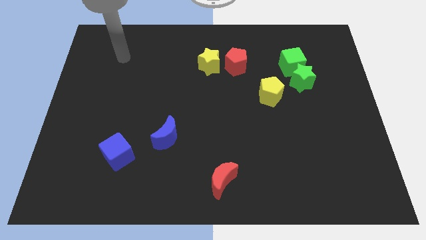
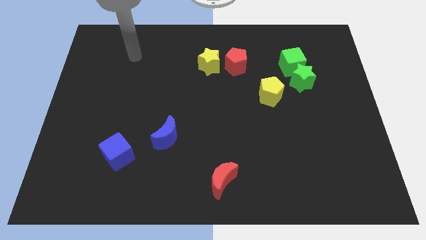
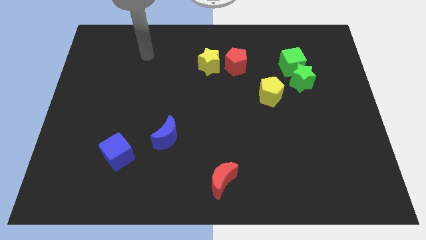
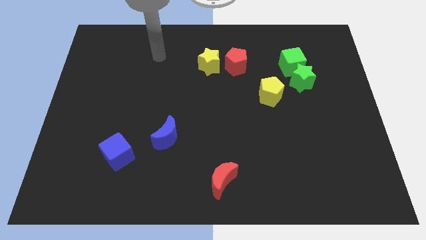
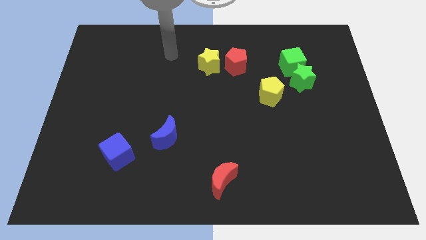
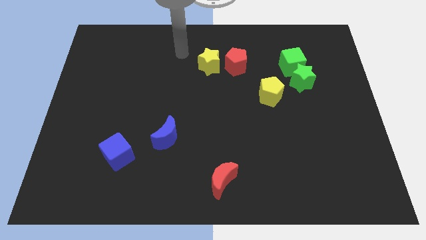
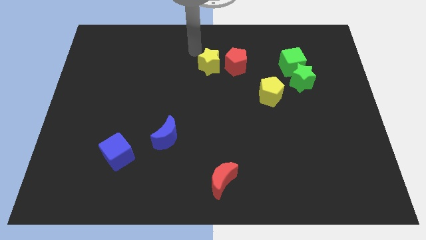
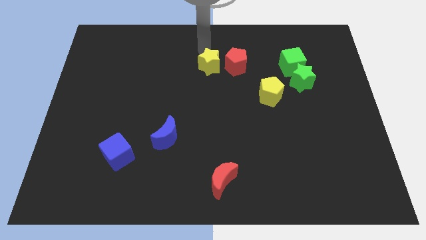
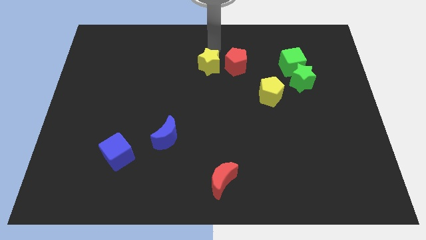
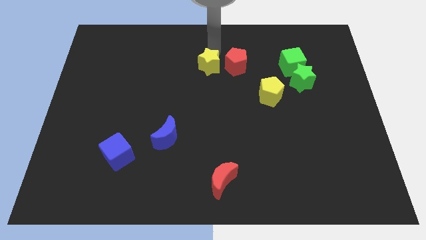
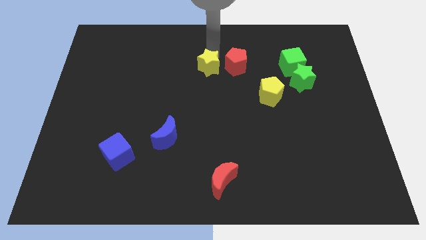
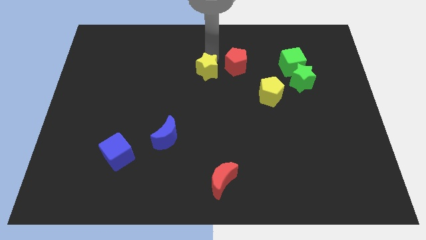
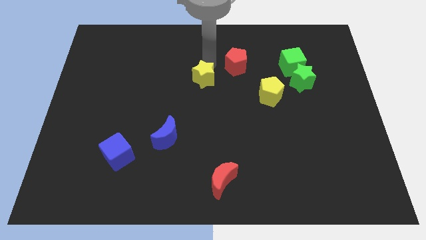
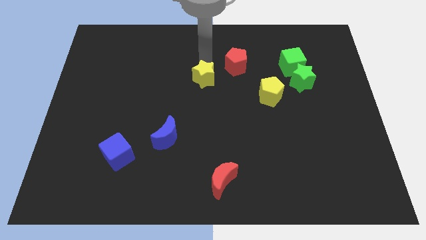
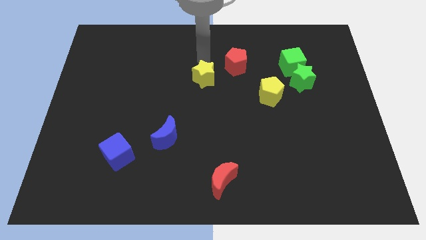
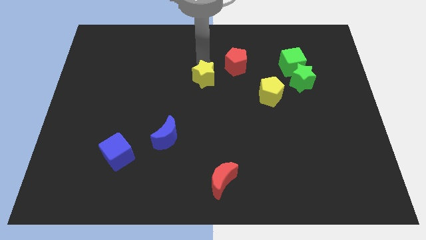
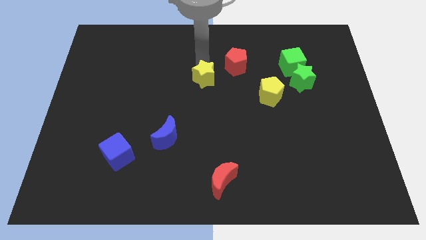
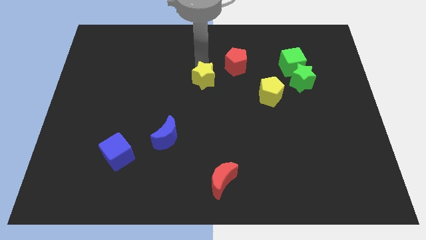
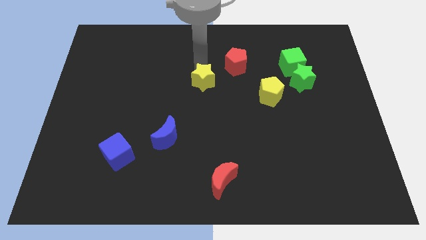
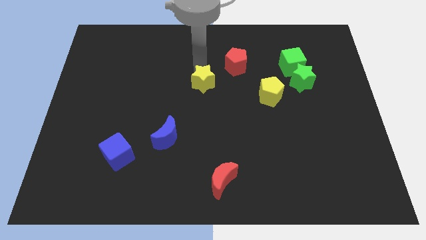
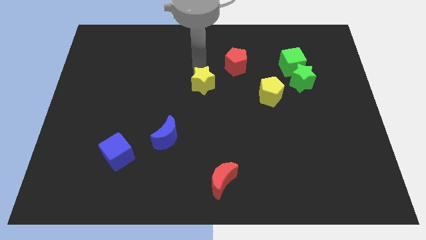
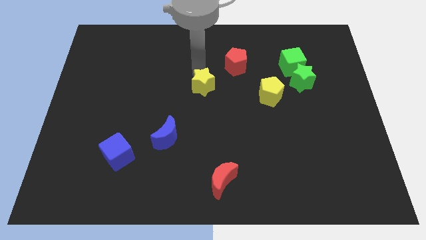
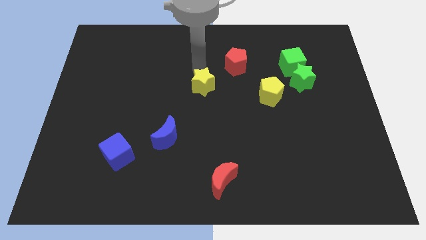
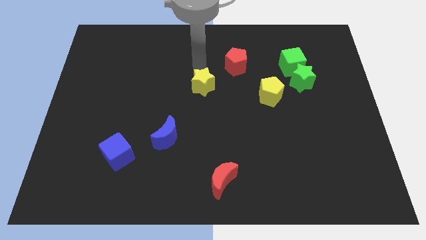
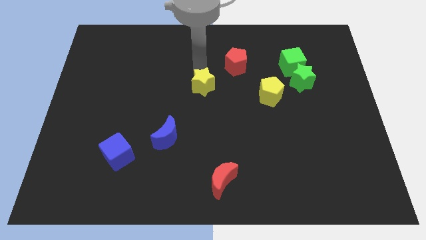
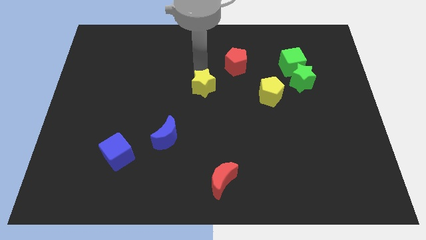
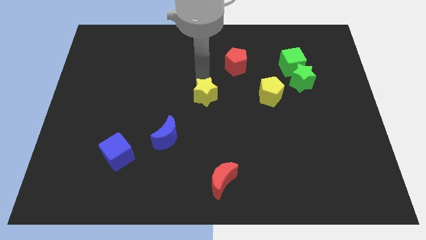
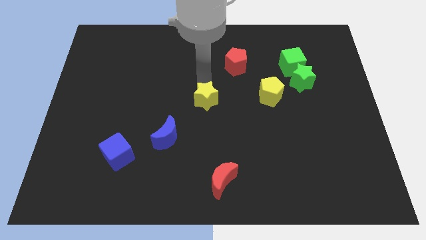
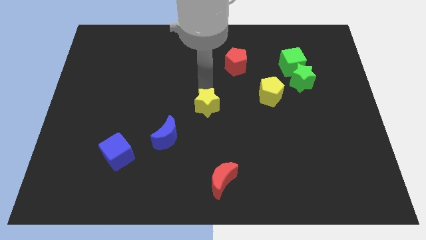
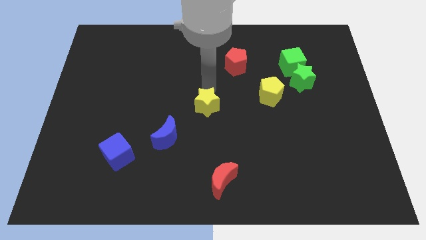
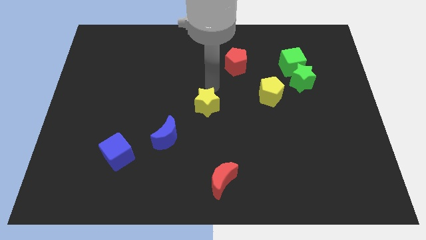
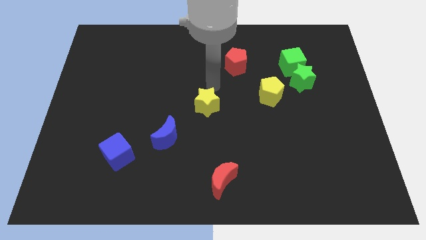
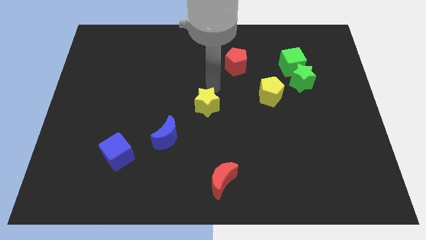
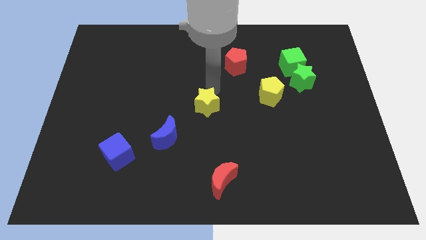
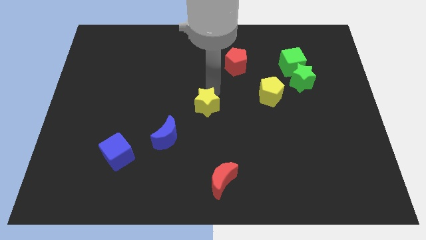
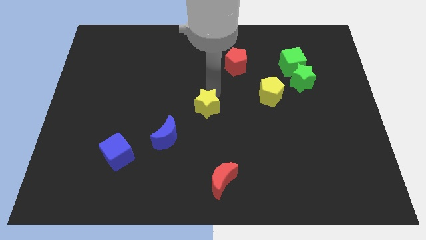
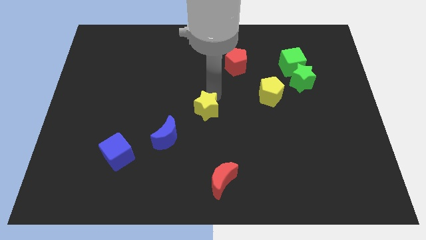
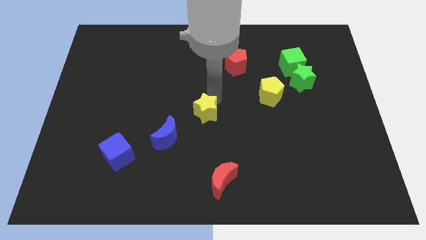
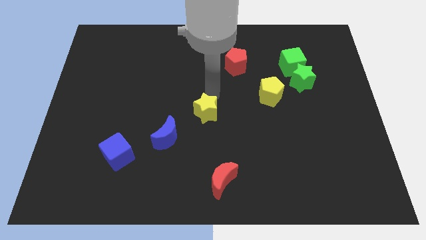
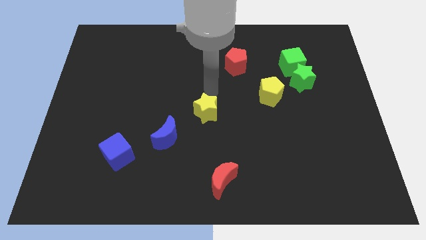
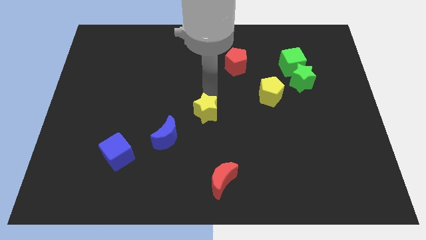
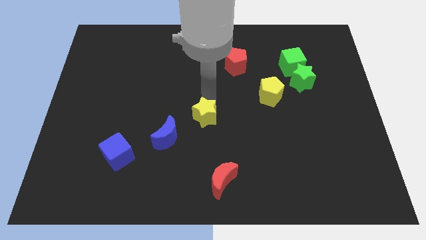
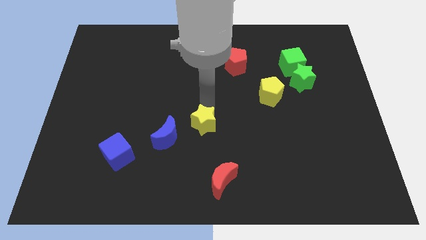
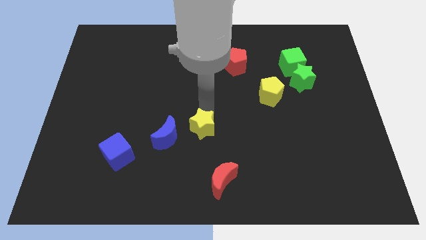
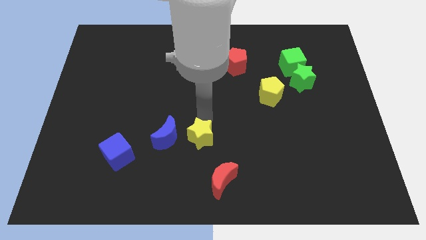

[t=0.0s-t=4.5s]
move the yellow star diagonally up and to the left of the red moon

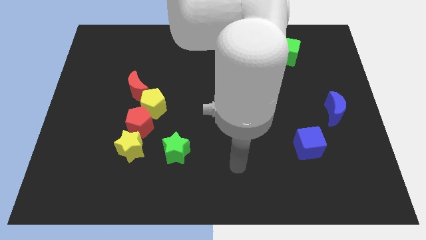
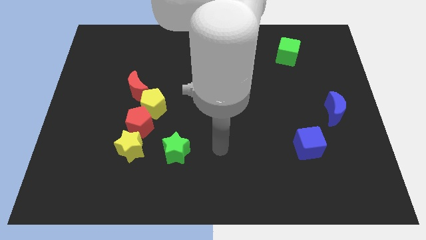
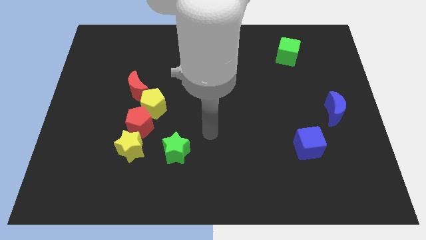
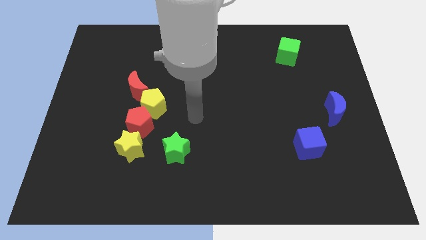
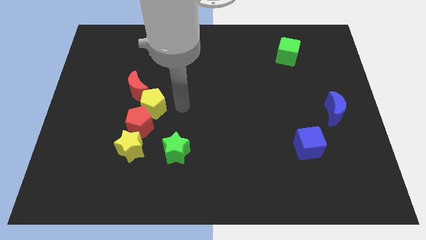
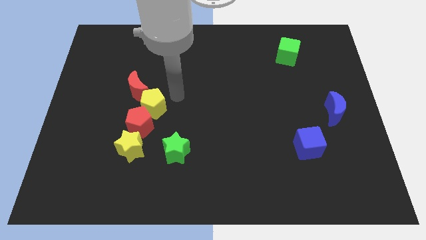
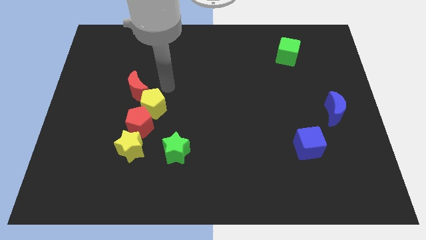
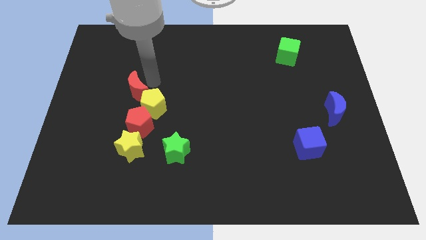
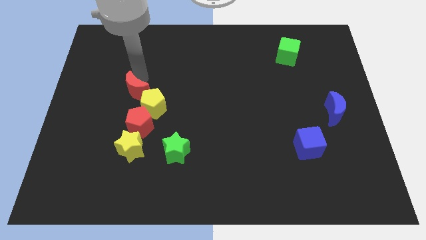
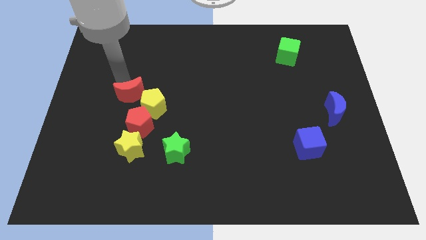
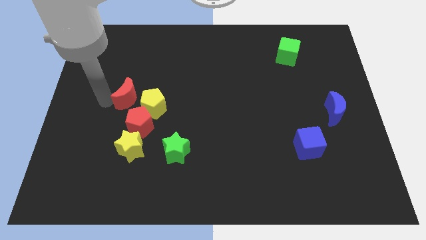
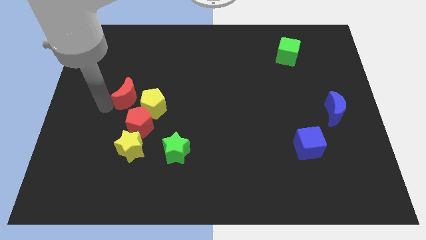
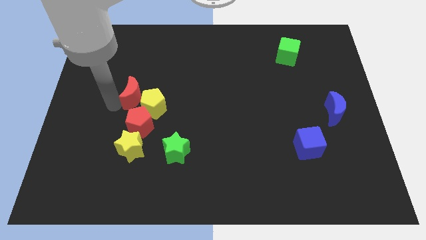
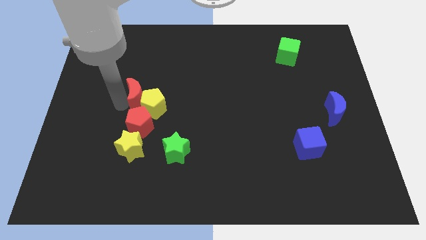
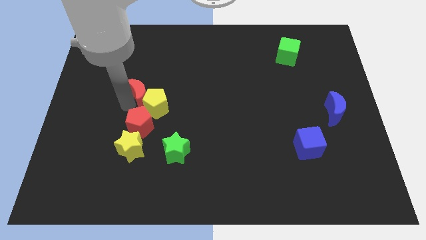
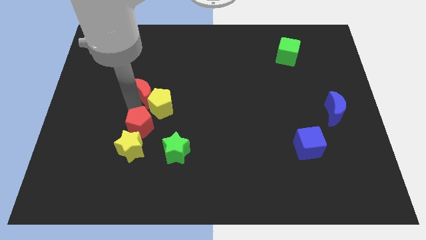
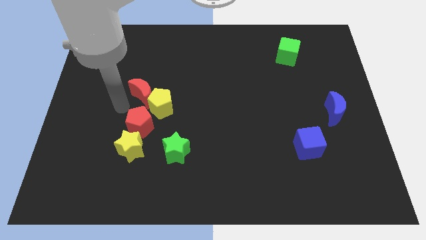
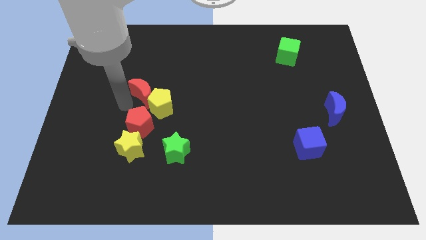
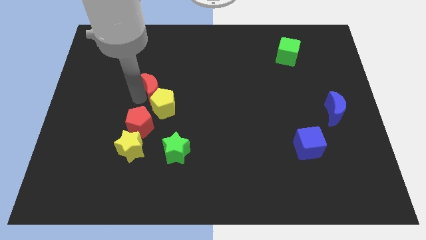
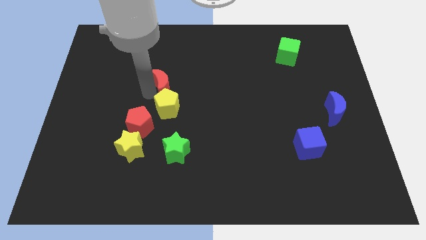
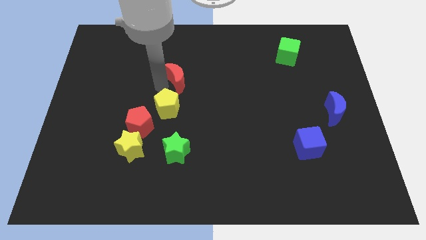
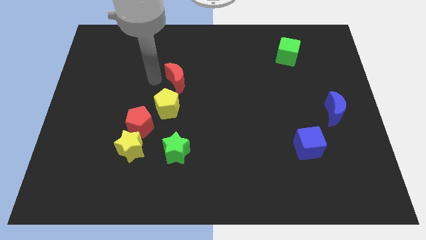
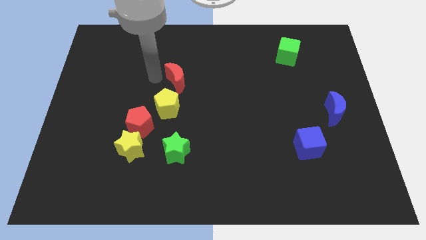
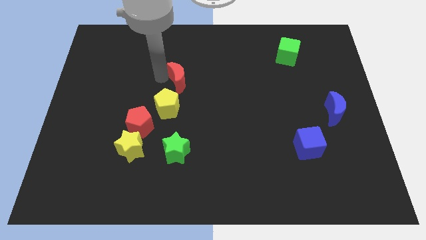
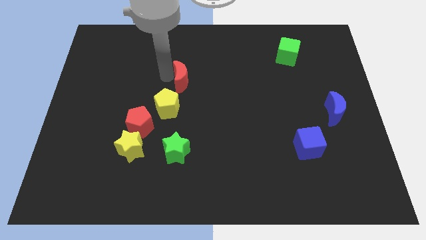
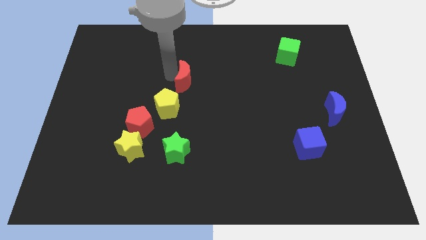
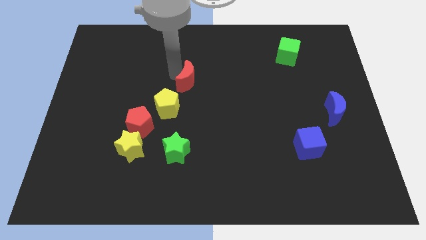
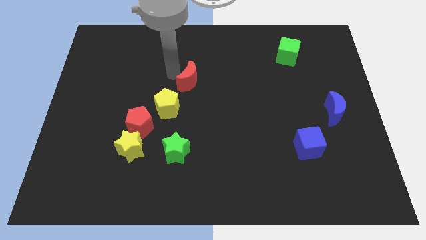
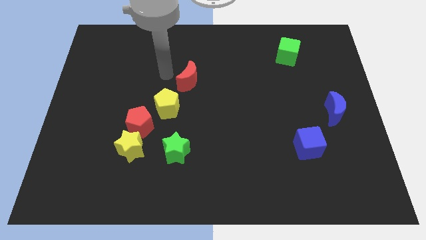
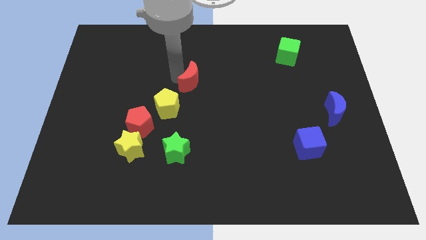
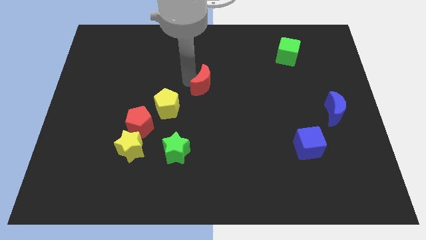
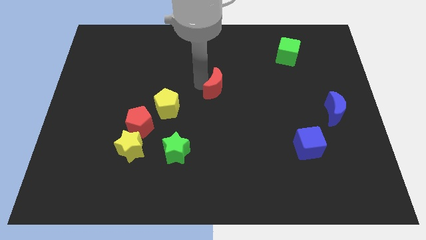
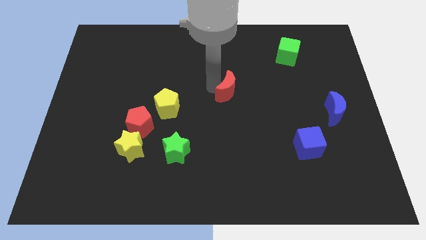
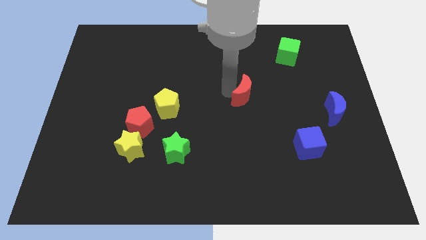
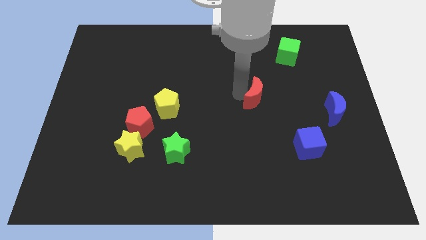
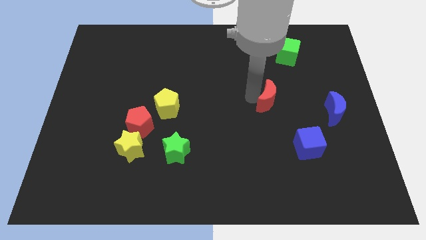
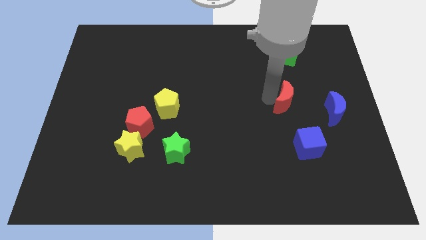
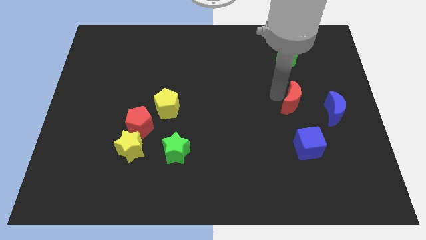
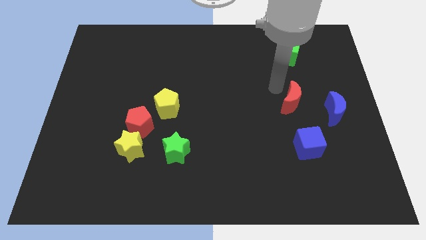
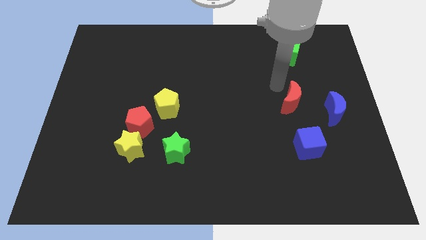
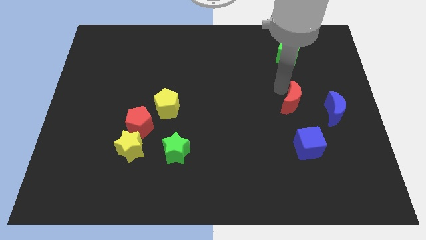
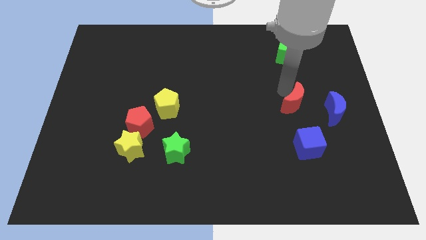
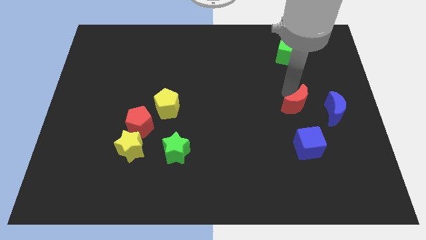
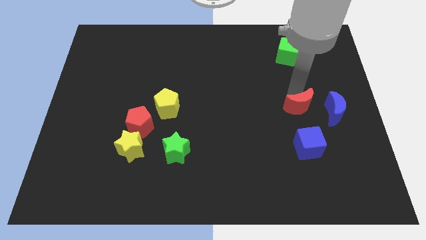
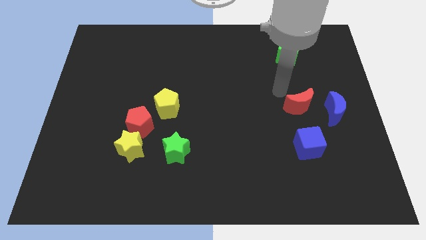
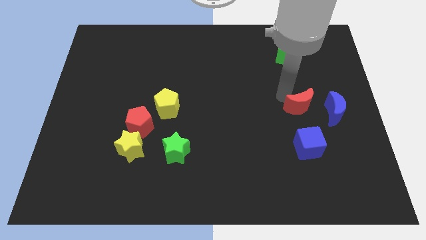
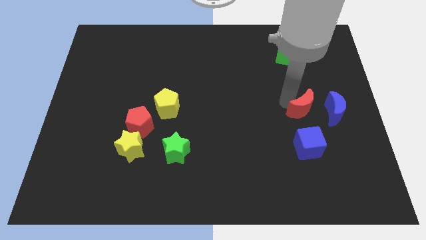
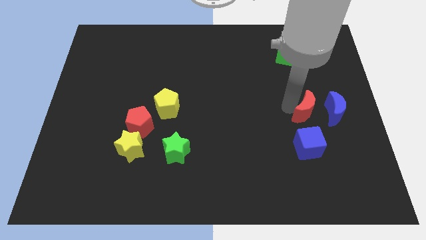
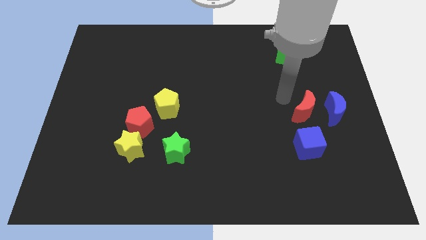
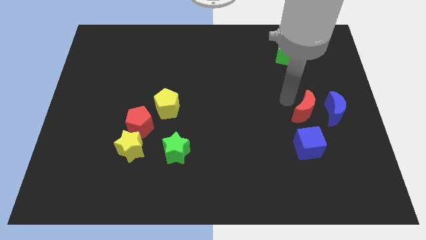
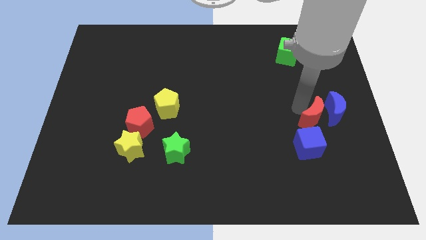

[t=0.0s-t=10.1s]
slide the red moon to the top right side of the blue cube
